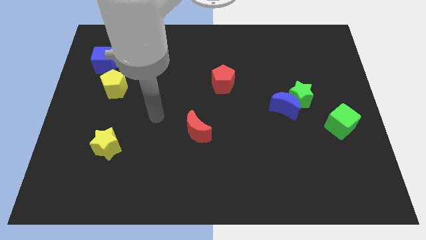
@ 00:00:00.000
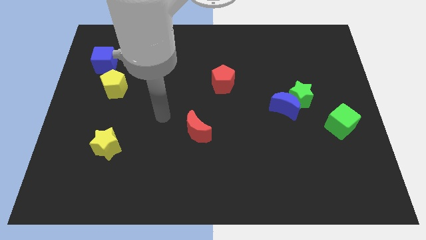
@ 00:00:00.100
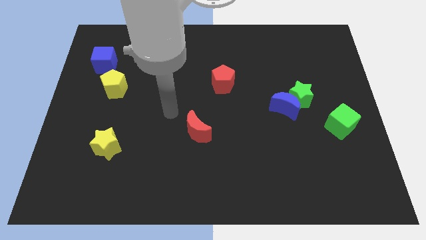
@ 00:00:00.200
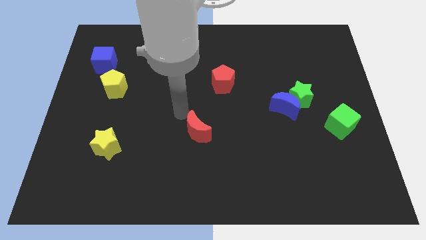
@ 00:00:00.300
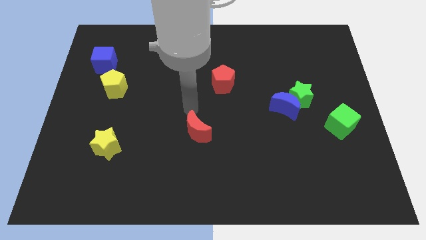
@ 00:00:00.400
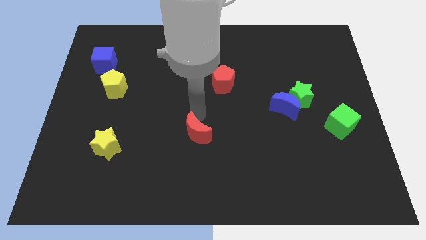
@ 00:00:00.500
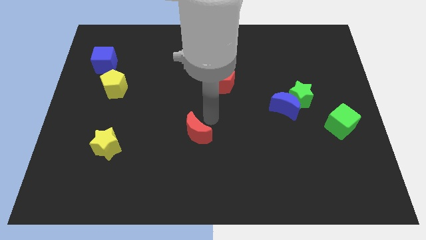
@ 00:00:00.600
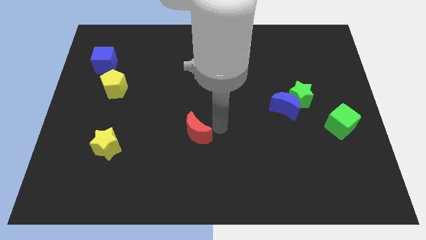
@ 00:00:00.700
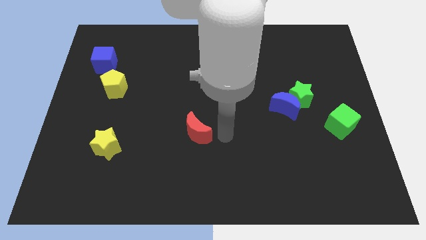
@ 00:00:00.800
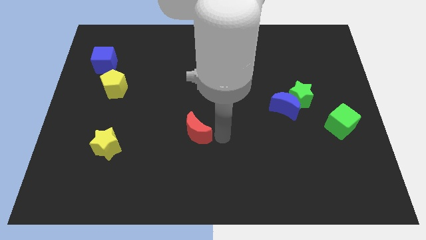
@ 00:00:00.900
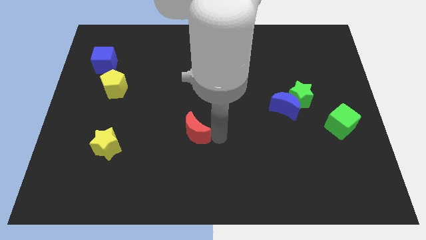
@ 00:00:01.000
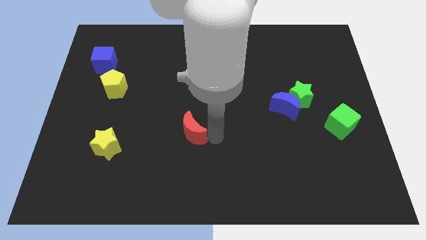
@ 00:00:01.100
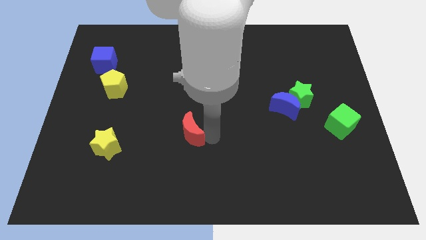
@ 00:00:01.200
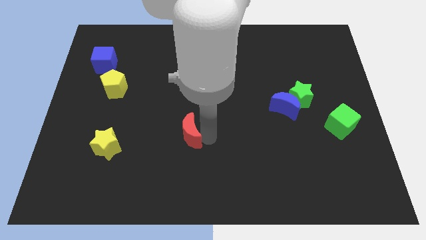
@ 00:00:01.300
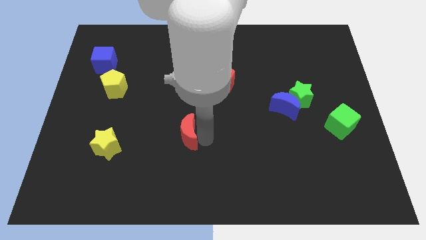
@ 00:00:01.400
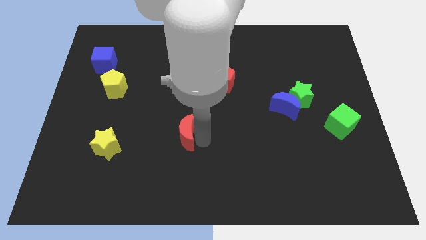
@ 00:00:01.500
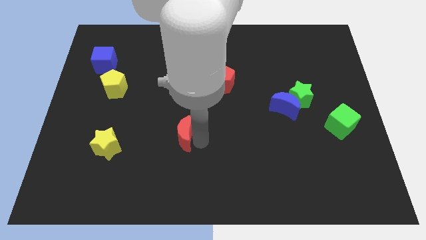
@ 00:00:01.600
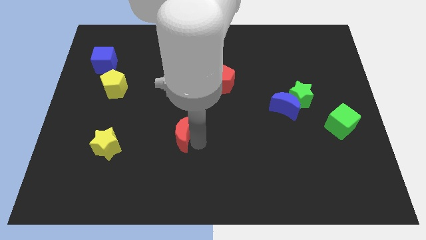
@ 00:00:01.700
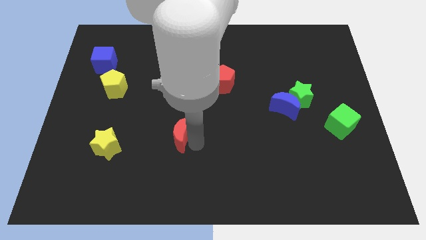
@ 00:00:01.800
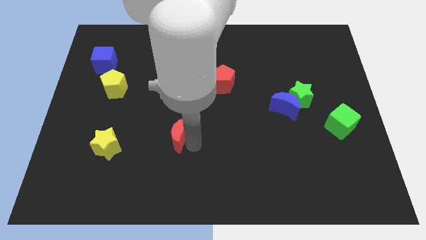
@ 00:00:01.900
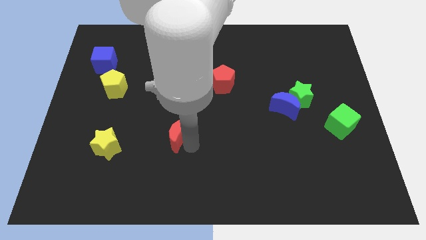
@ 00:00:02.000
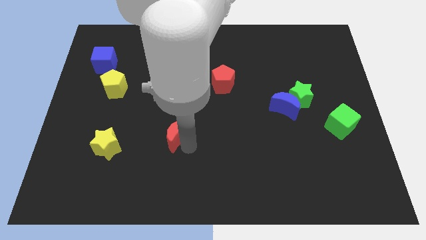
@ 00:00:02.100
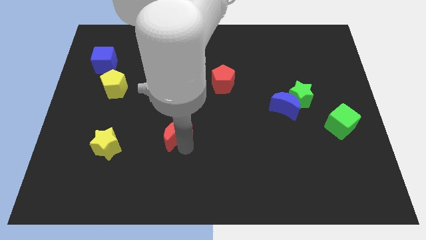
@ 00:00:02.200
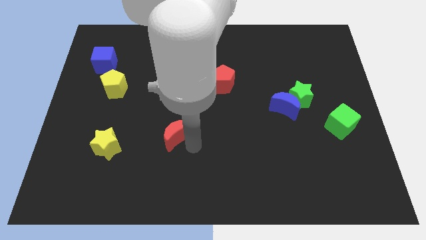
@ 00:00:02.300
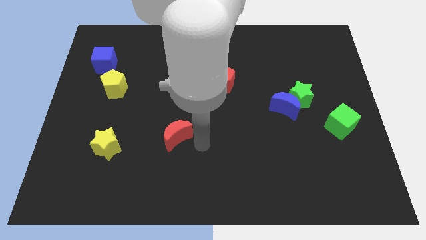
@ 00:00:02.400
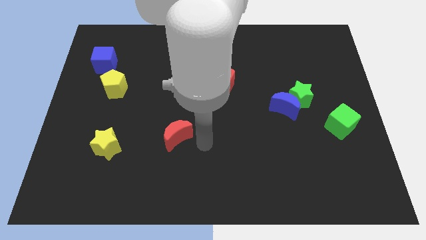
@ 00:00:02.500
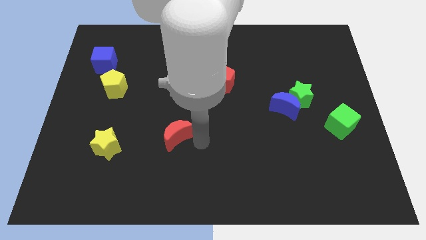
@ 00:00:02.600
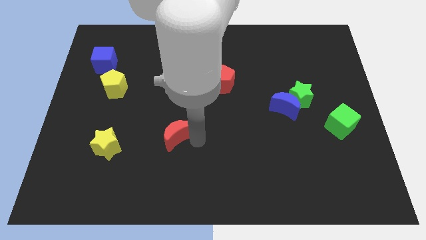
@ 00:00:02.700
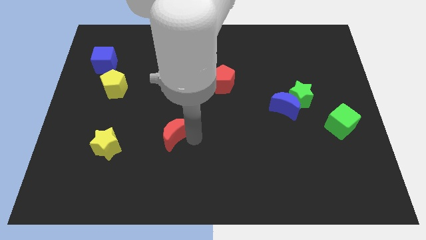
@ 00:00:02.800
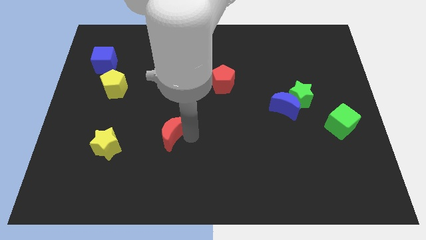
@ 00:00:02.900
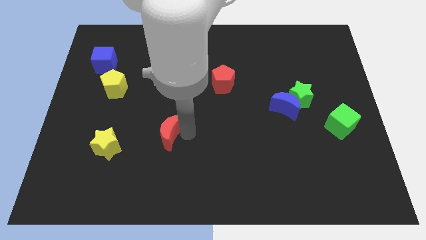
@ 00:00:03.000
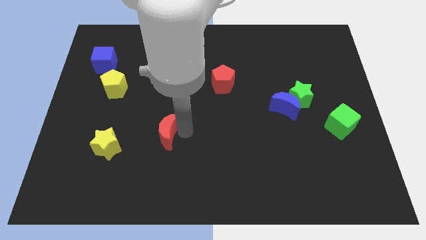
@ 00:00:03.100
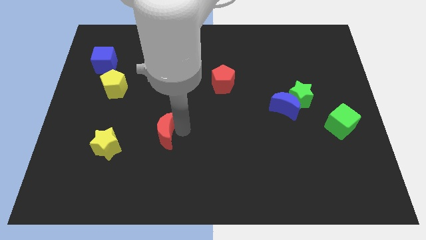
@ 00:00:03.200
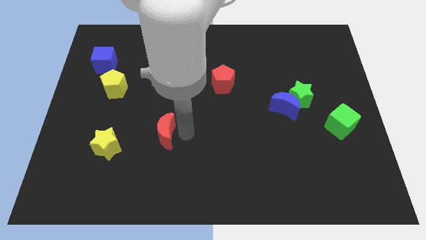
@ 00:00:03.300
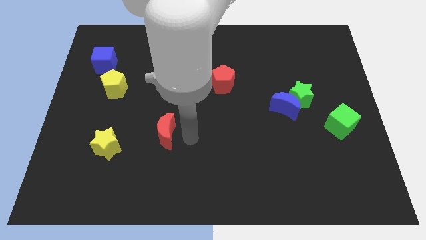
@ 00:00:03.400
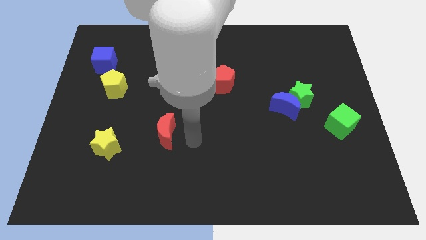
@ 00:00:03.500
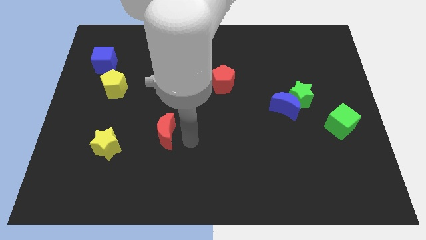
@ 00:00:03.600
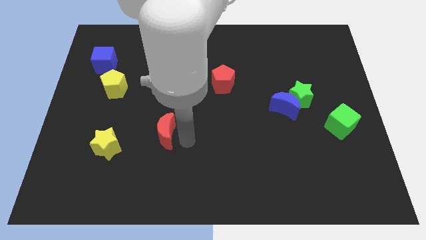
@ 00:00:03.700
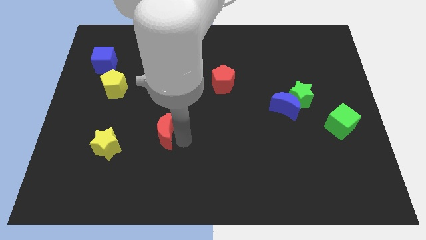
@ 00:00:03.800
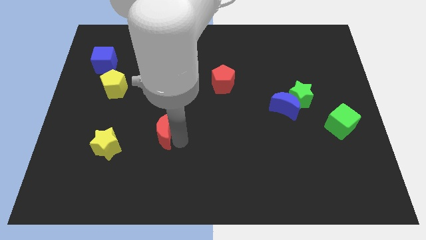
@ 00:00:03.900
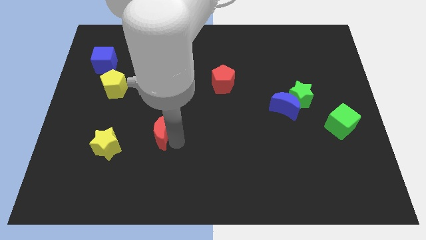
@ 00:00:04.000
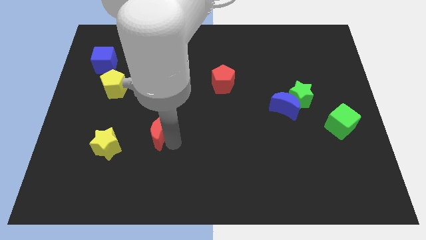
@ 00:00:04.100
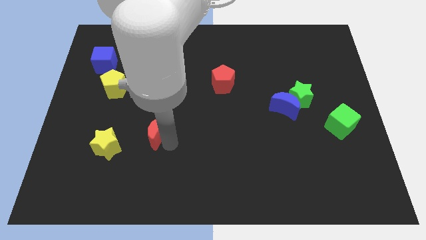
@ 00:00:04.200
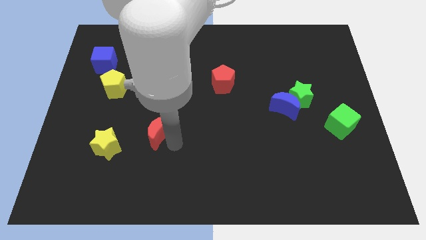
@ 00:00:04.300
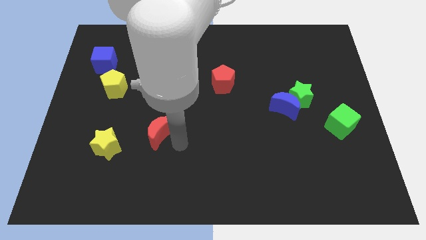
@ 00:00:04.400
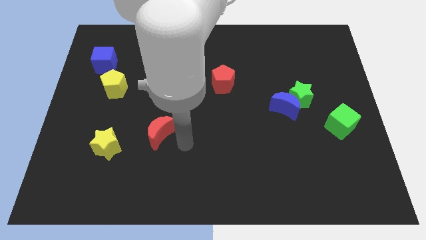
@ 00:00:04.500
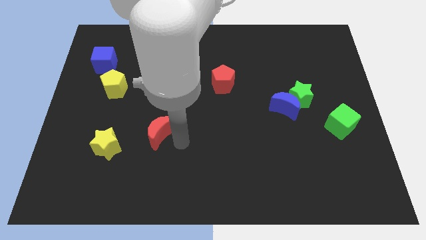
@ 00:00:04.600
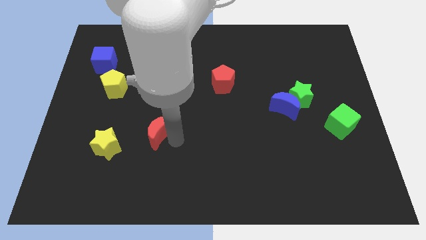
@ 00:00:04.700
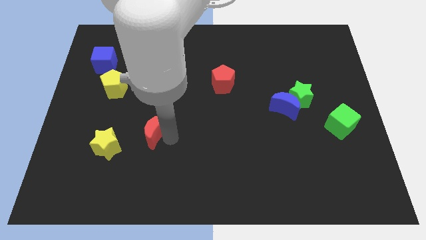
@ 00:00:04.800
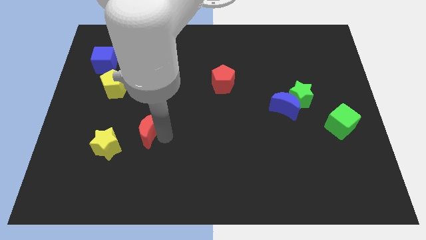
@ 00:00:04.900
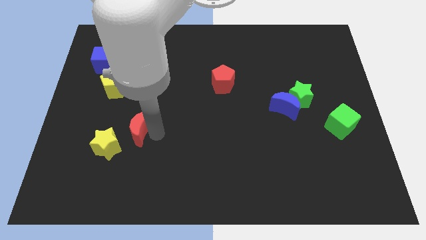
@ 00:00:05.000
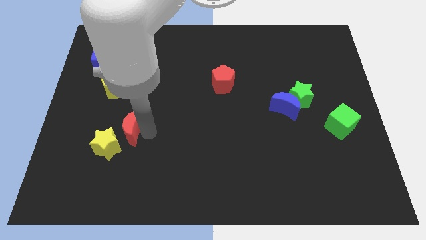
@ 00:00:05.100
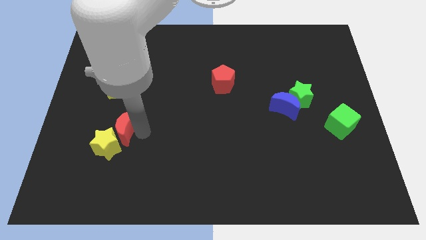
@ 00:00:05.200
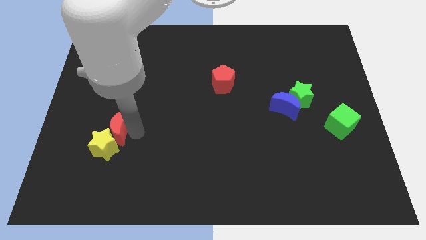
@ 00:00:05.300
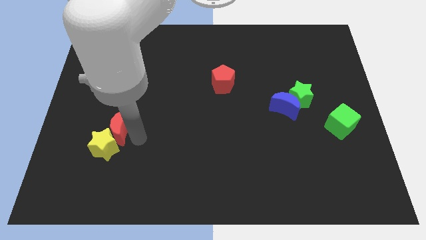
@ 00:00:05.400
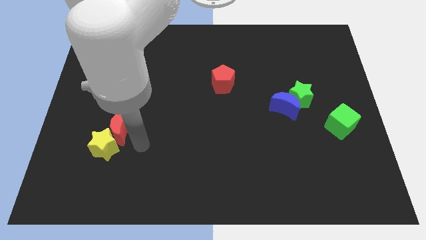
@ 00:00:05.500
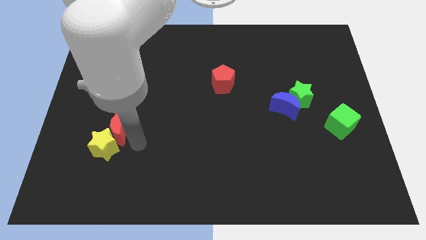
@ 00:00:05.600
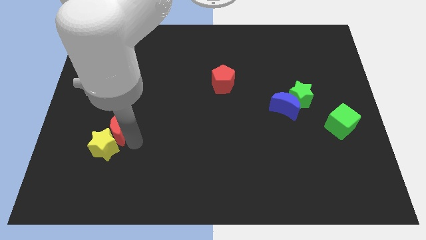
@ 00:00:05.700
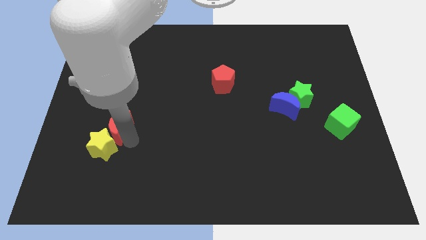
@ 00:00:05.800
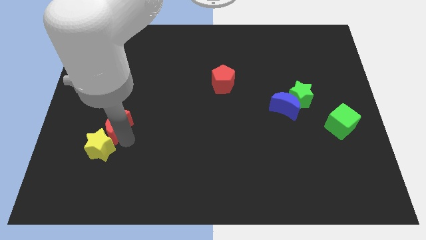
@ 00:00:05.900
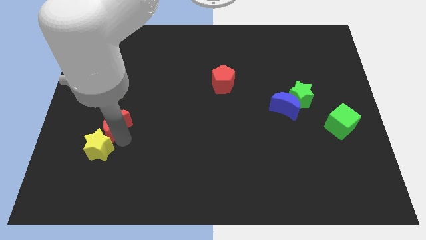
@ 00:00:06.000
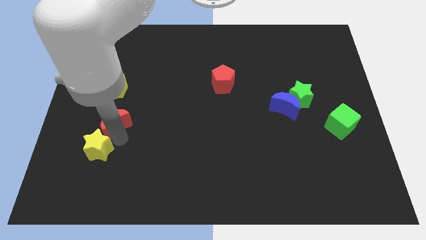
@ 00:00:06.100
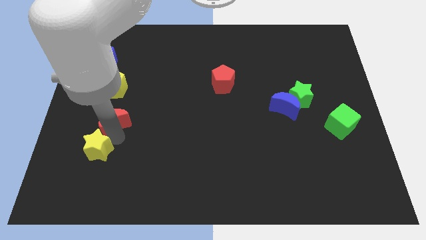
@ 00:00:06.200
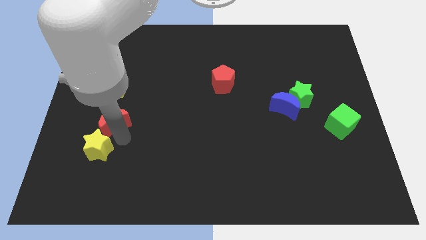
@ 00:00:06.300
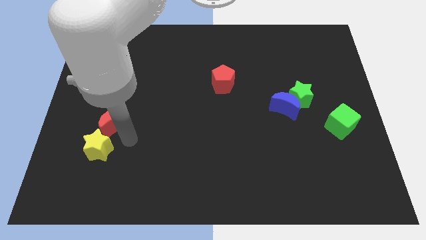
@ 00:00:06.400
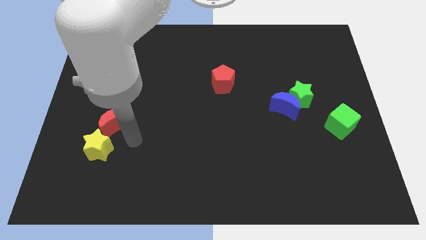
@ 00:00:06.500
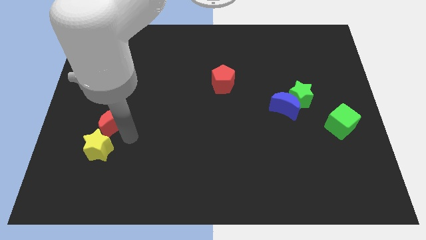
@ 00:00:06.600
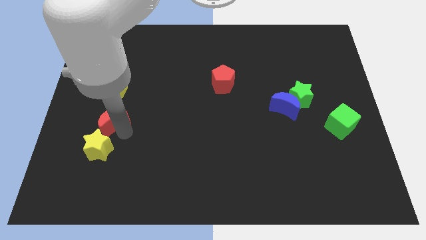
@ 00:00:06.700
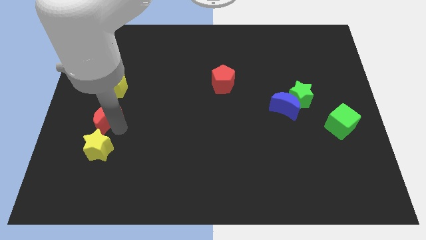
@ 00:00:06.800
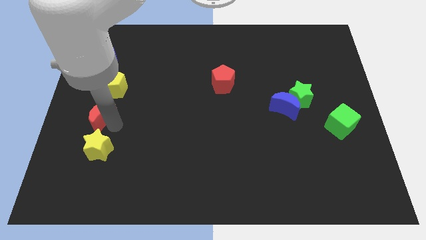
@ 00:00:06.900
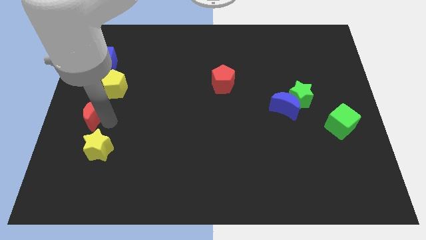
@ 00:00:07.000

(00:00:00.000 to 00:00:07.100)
move the red moon to the left side of the board
